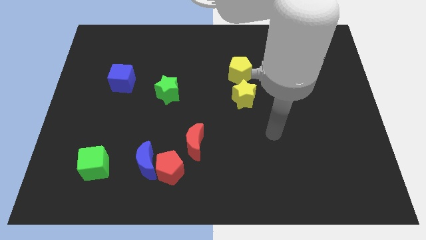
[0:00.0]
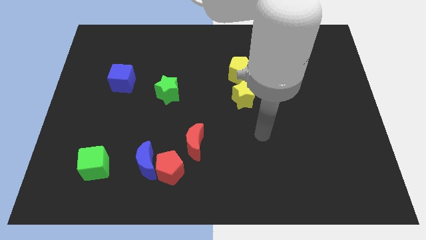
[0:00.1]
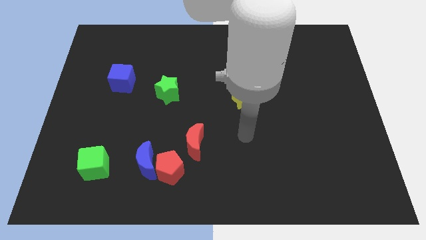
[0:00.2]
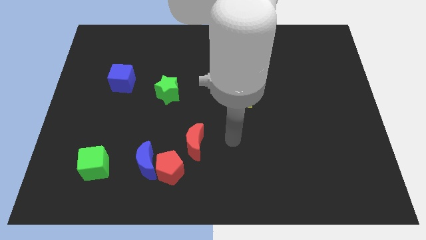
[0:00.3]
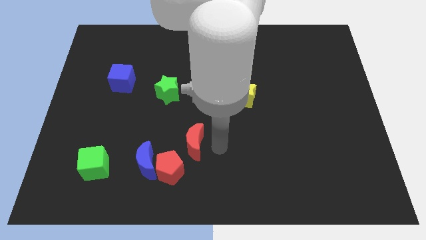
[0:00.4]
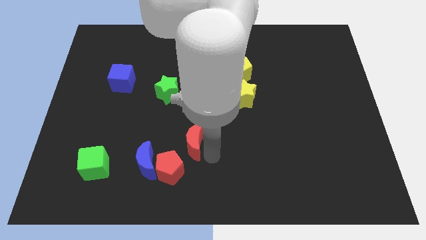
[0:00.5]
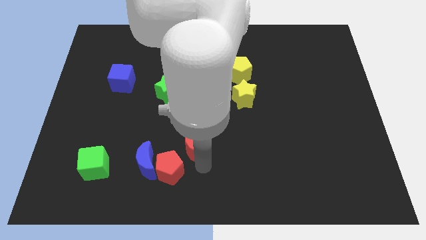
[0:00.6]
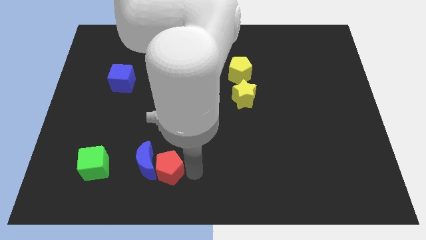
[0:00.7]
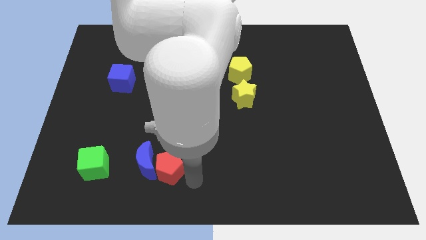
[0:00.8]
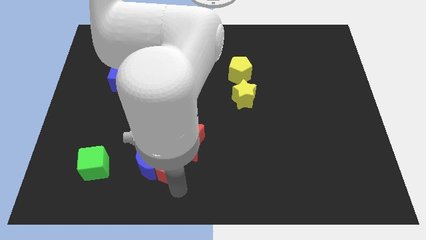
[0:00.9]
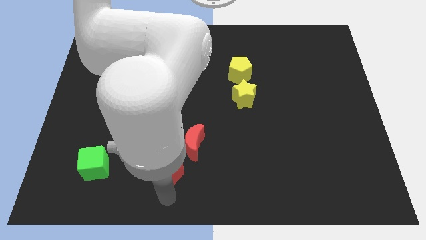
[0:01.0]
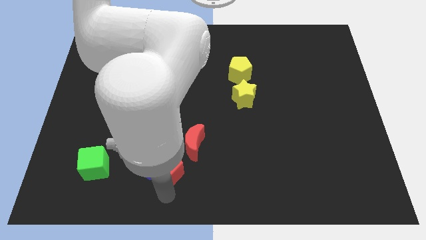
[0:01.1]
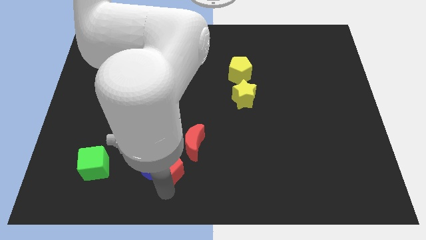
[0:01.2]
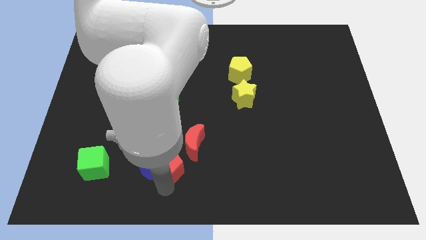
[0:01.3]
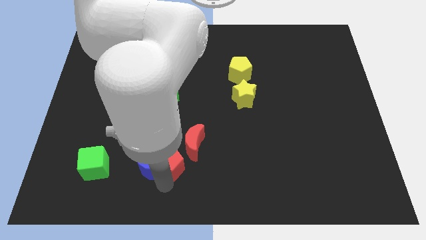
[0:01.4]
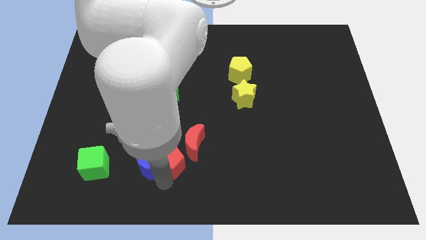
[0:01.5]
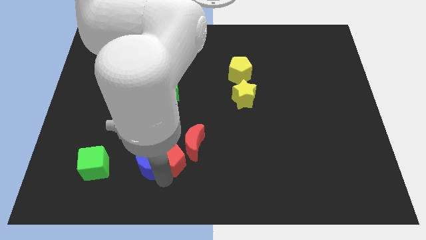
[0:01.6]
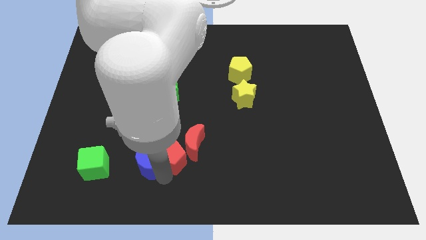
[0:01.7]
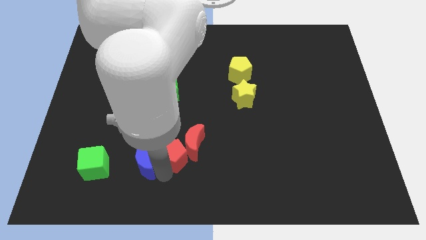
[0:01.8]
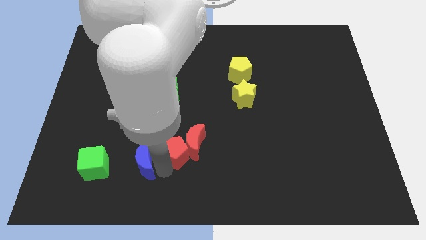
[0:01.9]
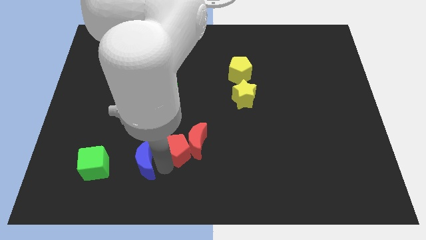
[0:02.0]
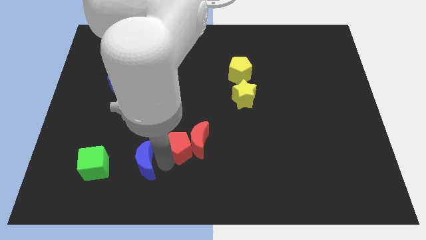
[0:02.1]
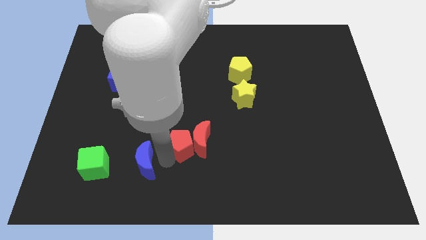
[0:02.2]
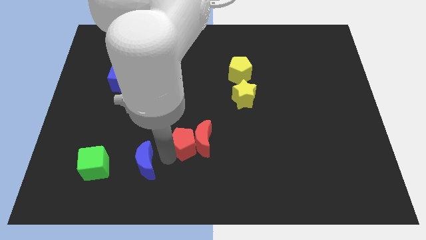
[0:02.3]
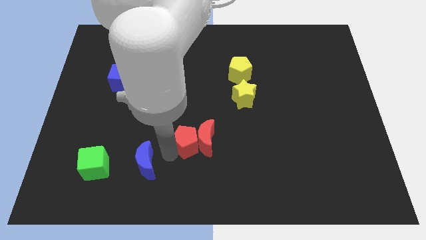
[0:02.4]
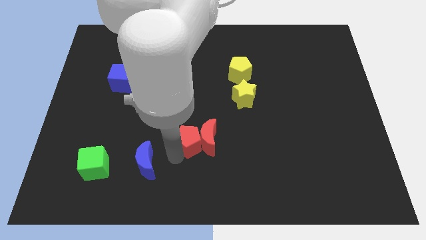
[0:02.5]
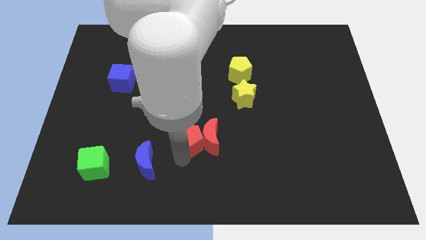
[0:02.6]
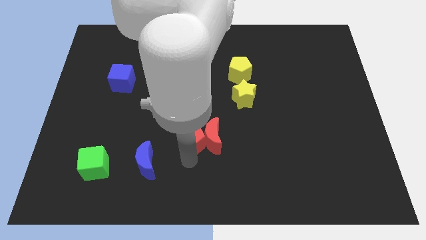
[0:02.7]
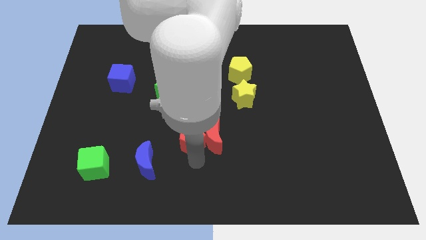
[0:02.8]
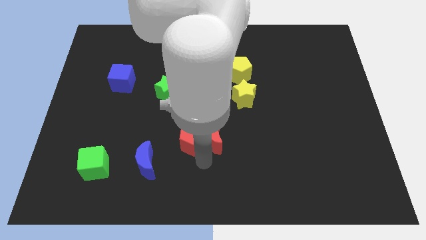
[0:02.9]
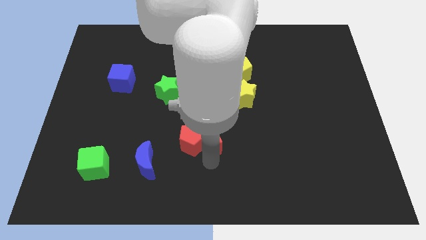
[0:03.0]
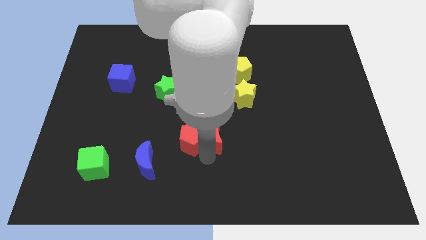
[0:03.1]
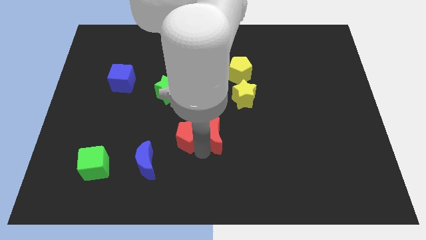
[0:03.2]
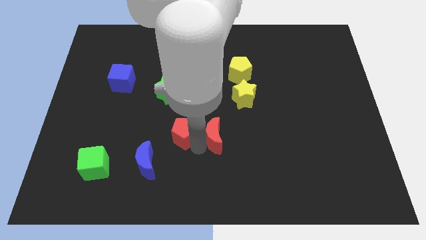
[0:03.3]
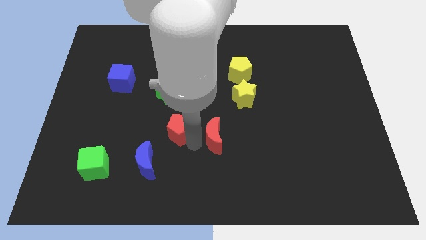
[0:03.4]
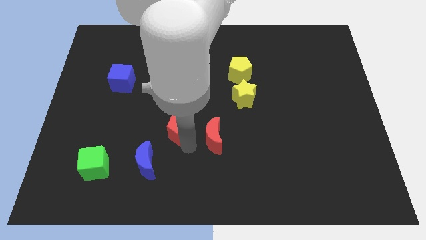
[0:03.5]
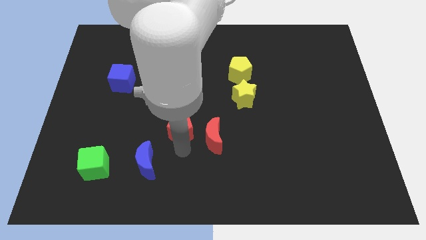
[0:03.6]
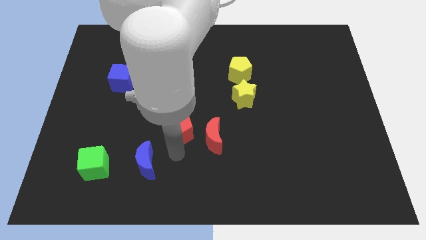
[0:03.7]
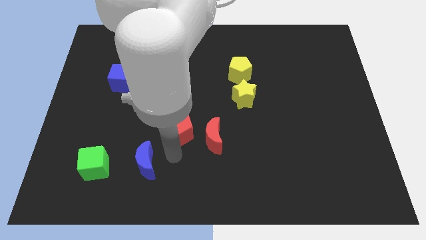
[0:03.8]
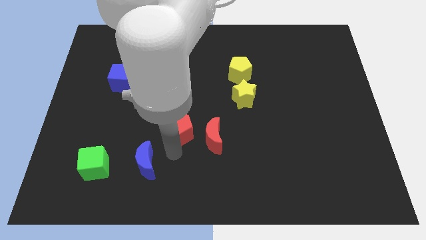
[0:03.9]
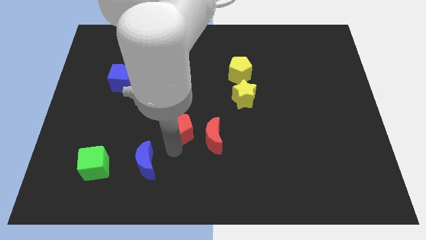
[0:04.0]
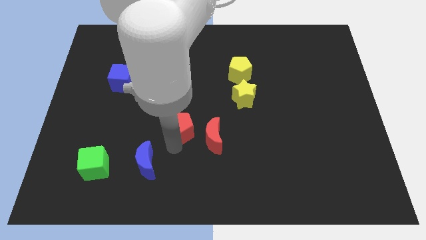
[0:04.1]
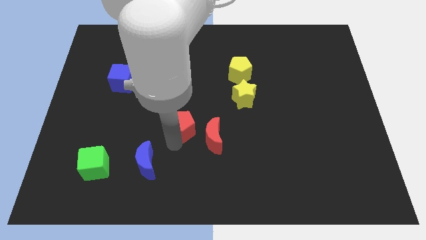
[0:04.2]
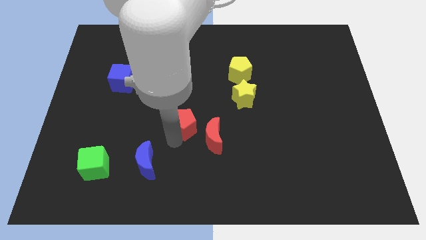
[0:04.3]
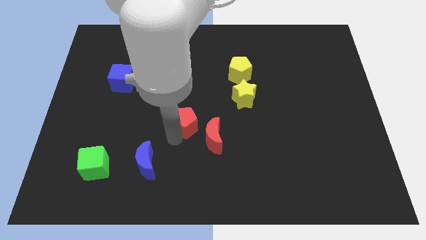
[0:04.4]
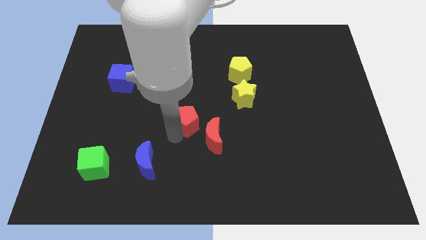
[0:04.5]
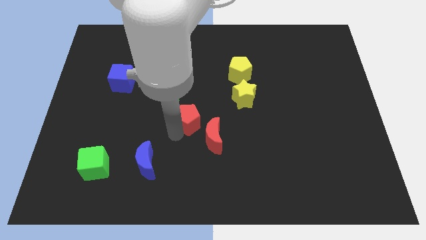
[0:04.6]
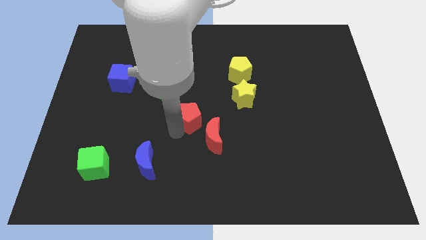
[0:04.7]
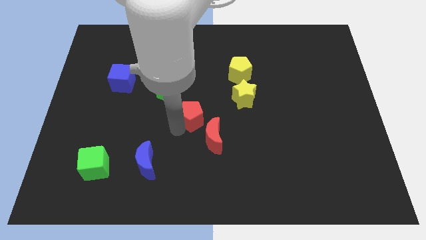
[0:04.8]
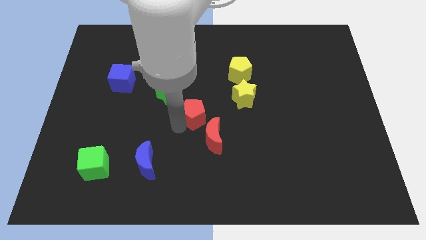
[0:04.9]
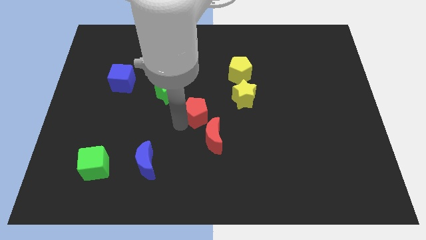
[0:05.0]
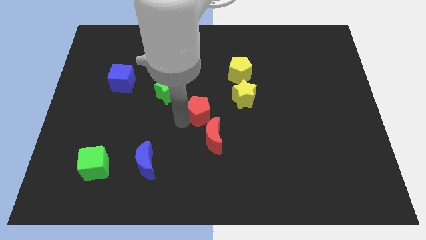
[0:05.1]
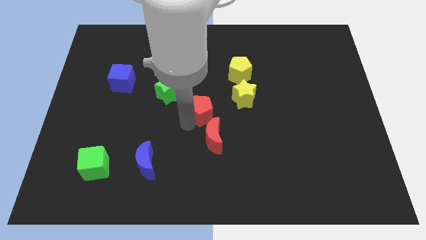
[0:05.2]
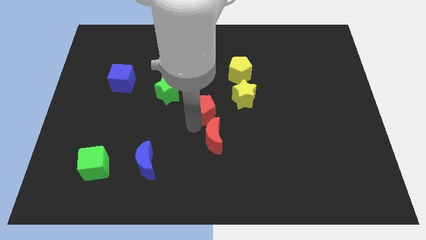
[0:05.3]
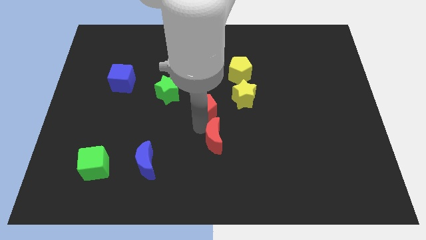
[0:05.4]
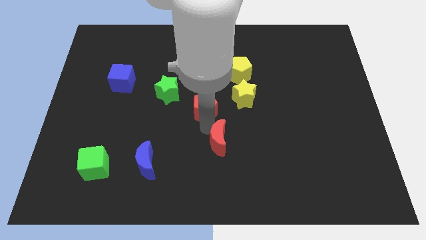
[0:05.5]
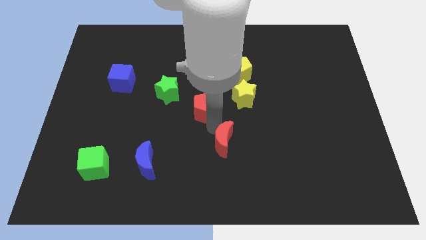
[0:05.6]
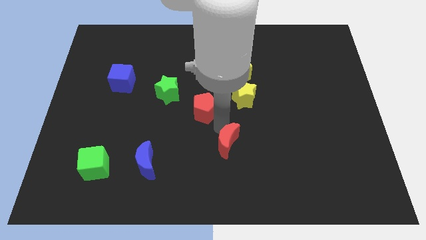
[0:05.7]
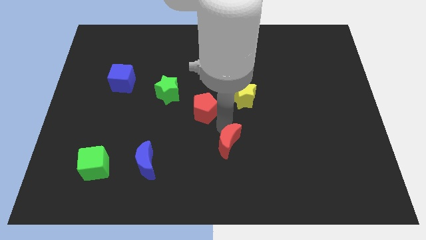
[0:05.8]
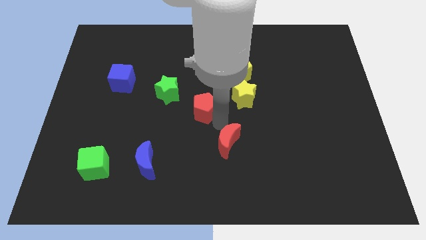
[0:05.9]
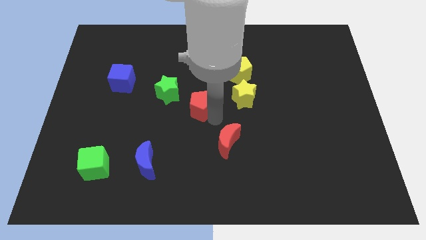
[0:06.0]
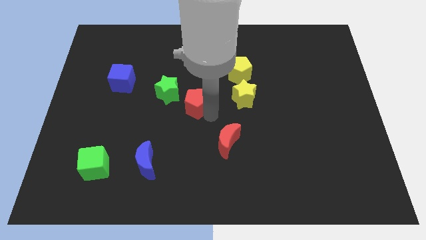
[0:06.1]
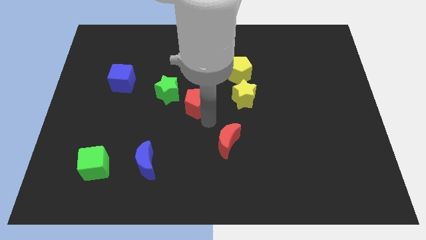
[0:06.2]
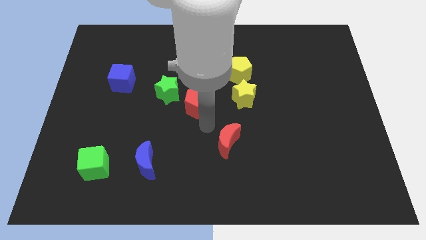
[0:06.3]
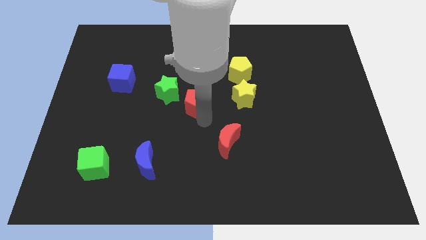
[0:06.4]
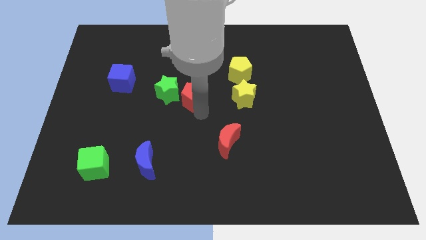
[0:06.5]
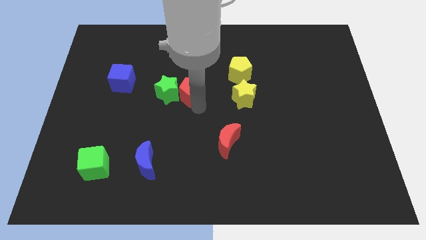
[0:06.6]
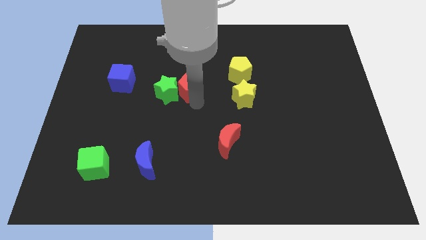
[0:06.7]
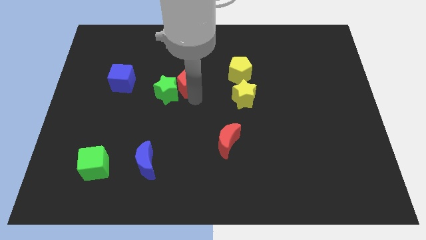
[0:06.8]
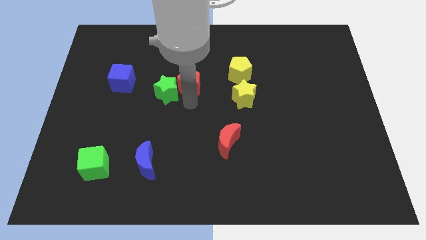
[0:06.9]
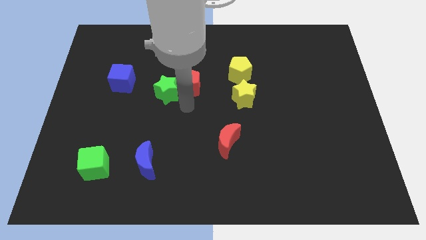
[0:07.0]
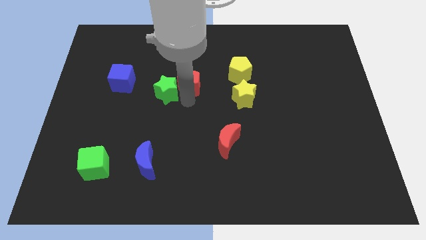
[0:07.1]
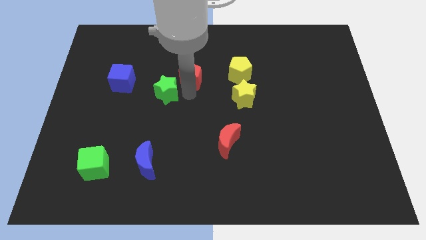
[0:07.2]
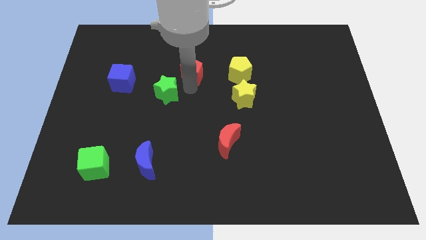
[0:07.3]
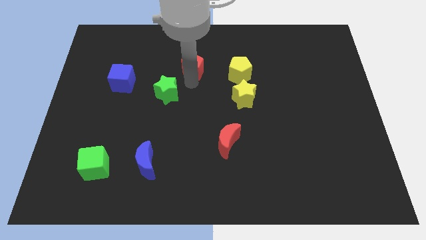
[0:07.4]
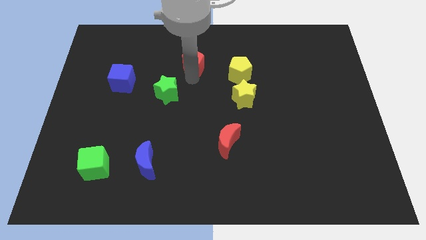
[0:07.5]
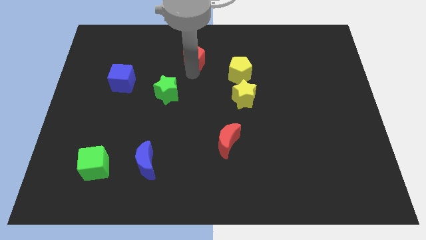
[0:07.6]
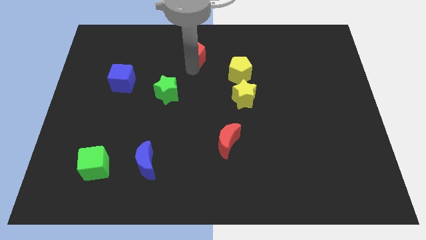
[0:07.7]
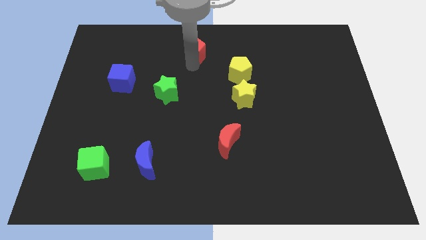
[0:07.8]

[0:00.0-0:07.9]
slide the red pentagon to the top side
